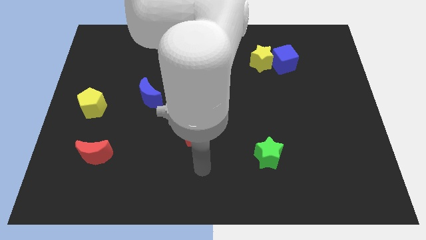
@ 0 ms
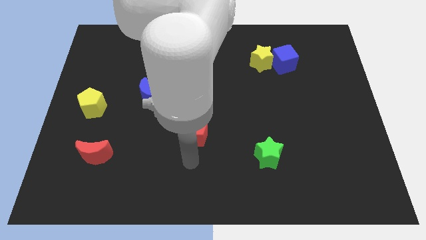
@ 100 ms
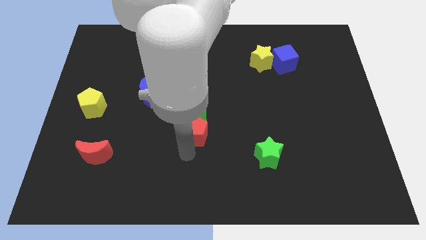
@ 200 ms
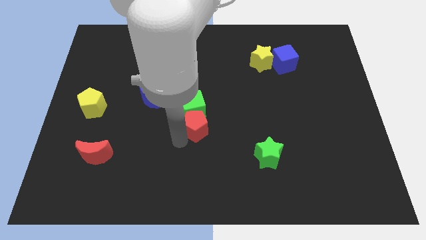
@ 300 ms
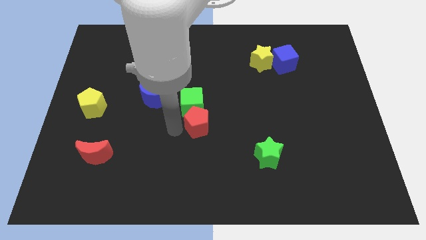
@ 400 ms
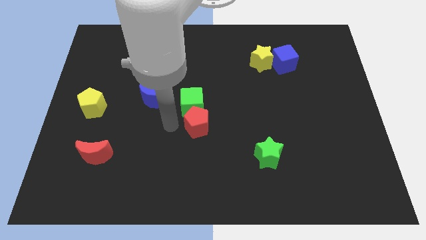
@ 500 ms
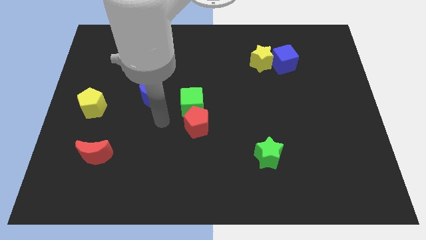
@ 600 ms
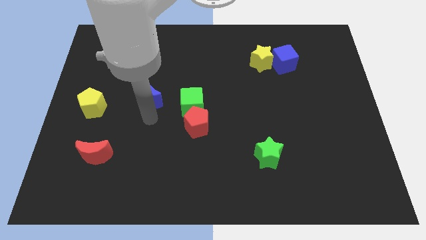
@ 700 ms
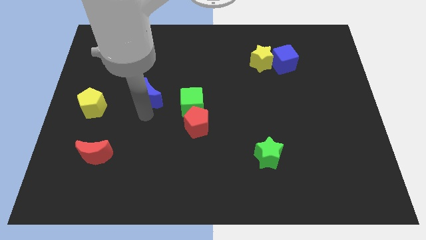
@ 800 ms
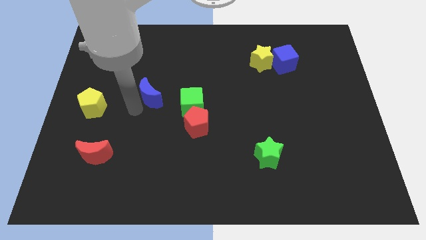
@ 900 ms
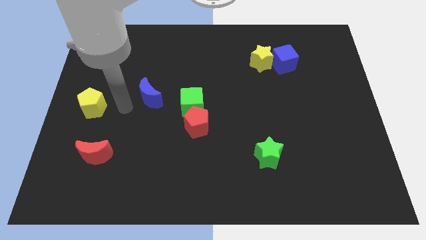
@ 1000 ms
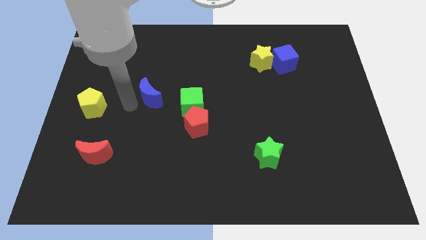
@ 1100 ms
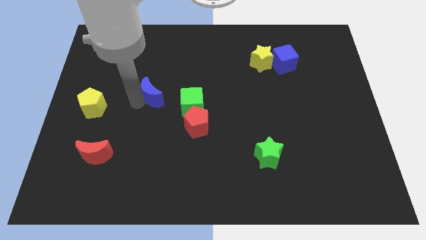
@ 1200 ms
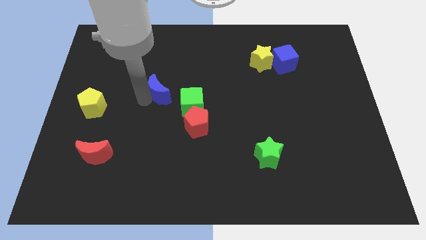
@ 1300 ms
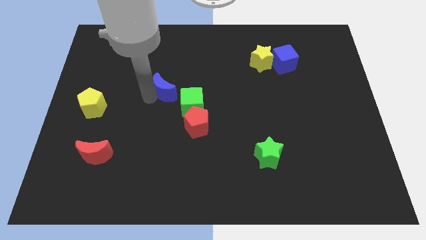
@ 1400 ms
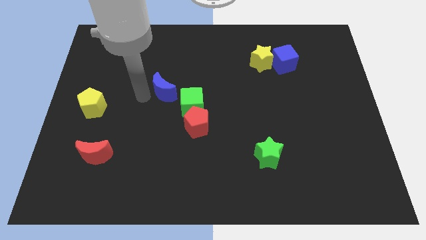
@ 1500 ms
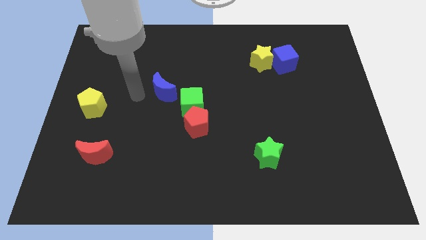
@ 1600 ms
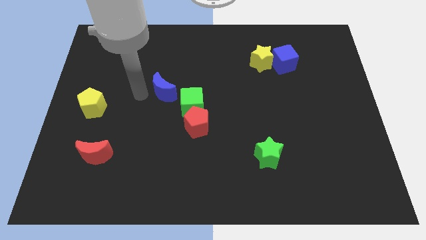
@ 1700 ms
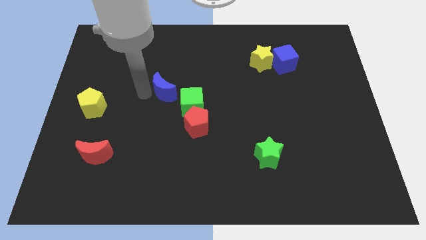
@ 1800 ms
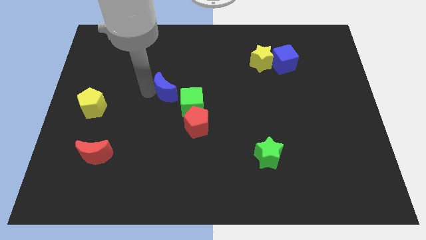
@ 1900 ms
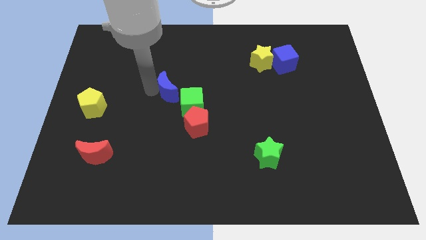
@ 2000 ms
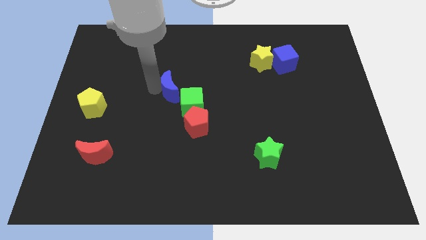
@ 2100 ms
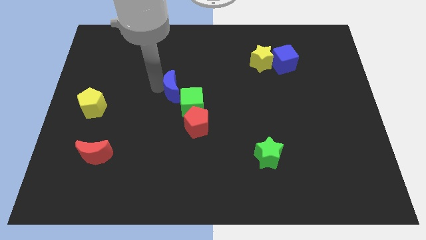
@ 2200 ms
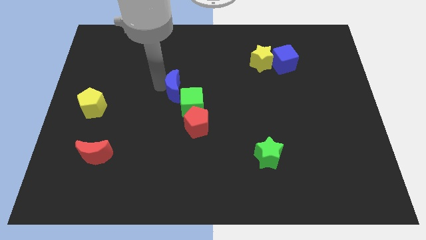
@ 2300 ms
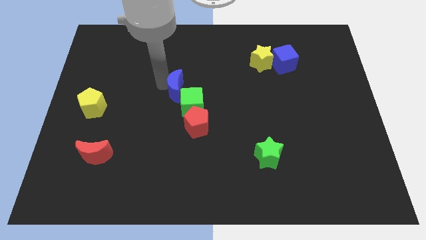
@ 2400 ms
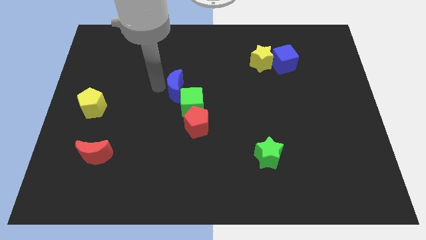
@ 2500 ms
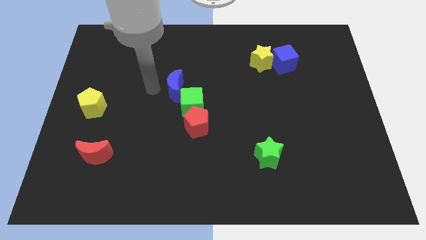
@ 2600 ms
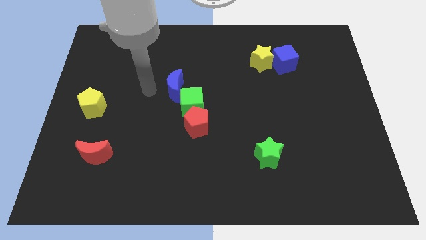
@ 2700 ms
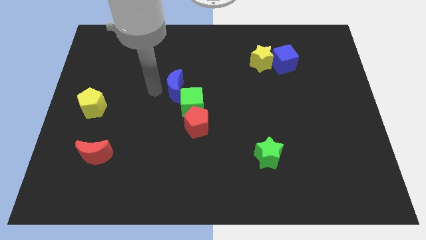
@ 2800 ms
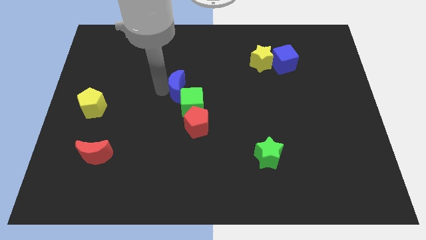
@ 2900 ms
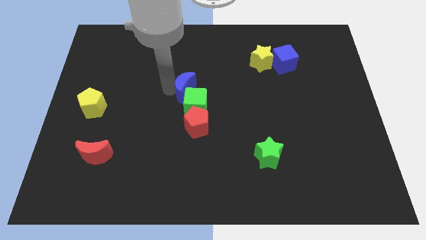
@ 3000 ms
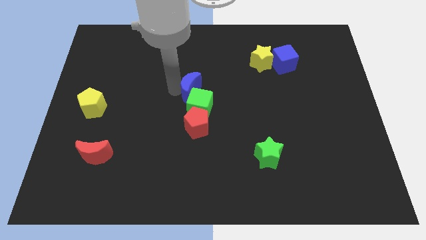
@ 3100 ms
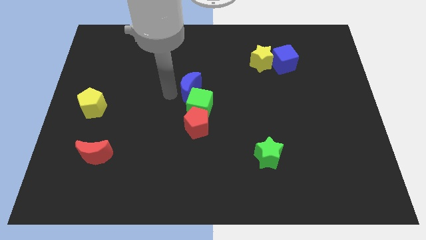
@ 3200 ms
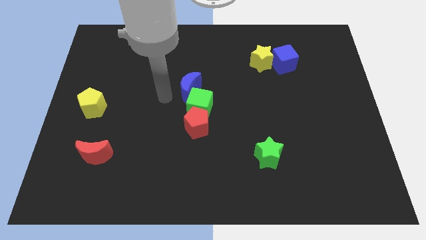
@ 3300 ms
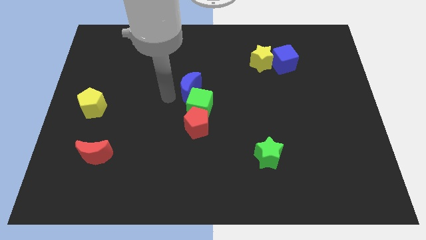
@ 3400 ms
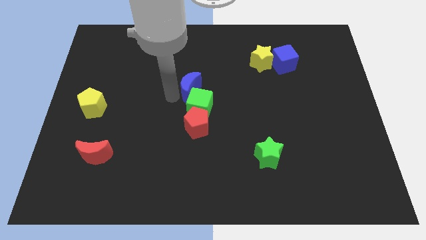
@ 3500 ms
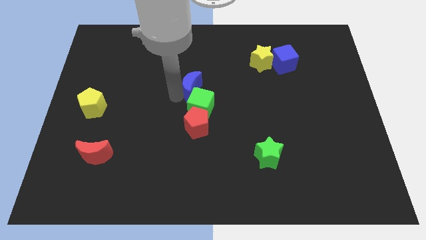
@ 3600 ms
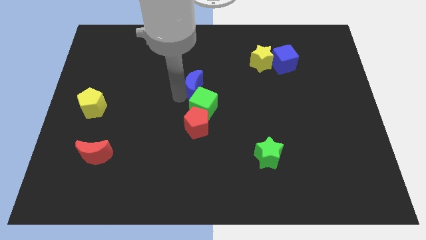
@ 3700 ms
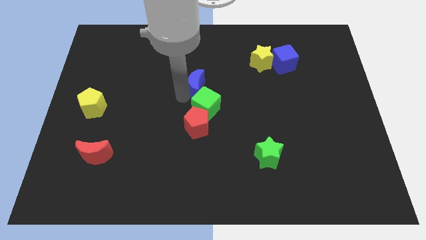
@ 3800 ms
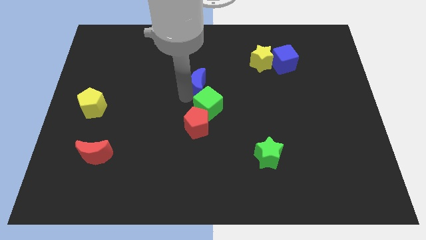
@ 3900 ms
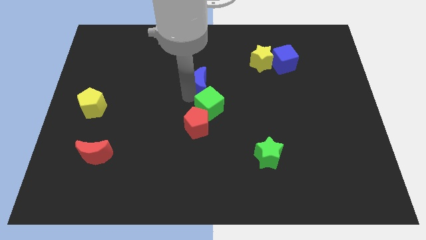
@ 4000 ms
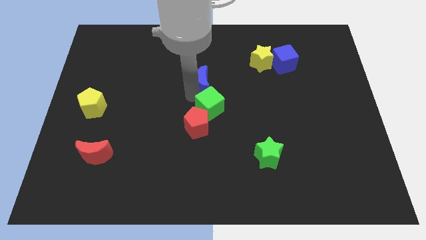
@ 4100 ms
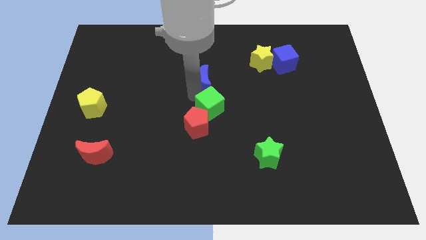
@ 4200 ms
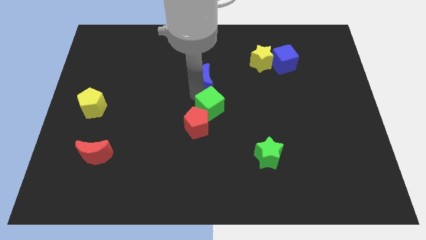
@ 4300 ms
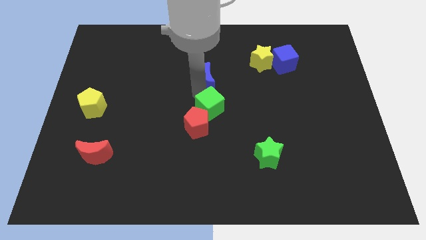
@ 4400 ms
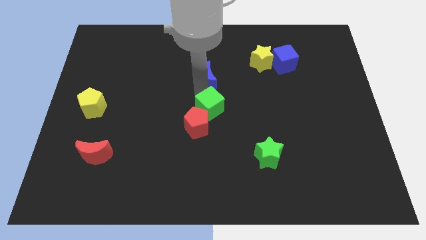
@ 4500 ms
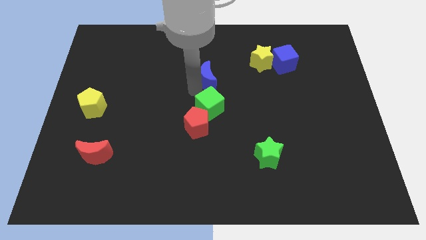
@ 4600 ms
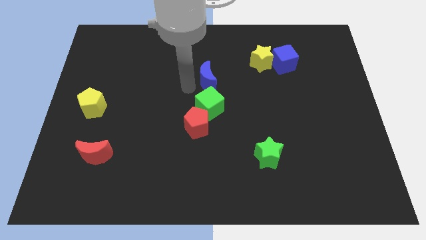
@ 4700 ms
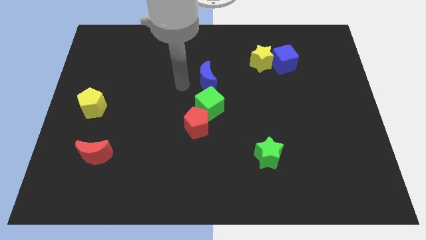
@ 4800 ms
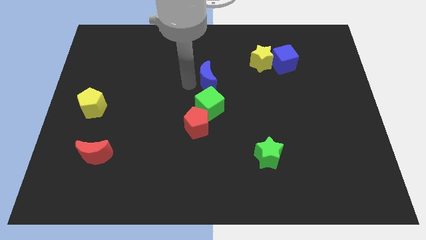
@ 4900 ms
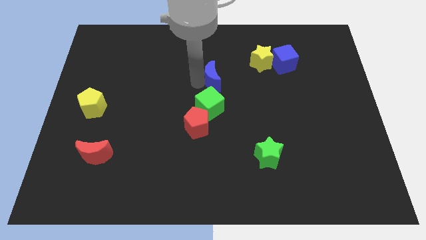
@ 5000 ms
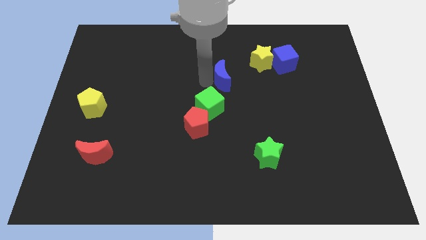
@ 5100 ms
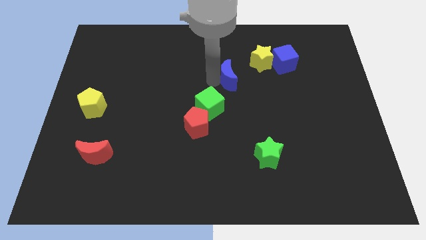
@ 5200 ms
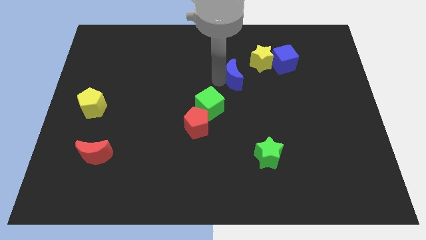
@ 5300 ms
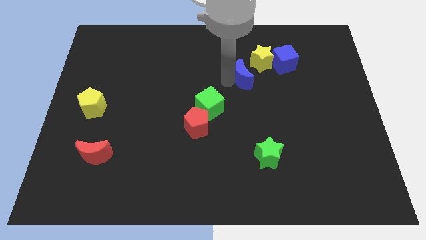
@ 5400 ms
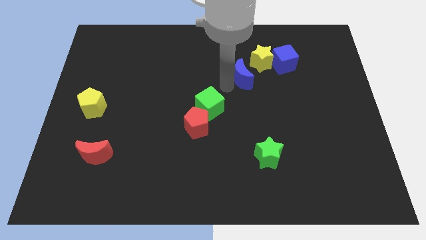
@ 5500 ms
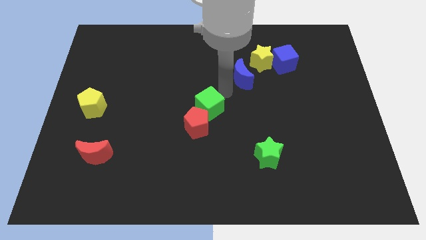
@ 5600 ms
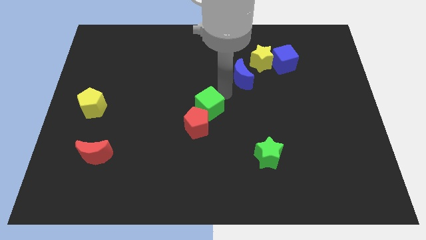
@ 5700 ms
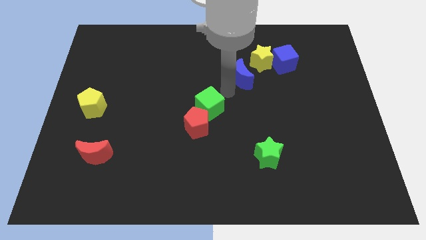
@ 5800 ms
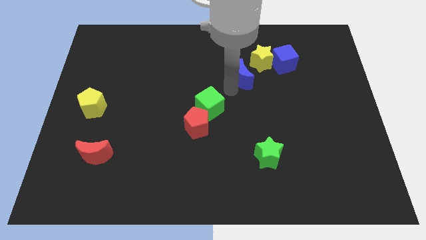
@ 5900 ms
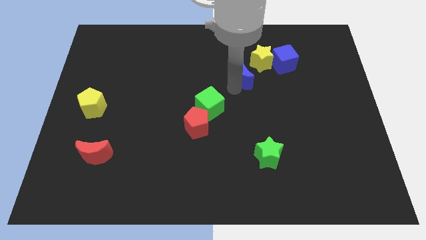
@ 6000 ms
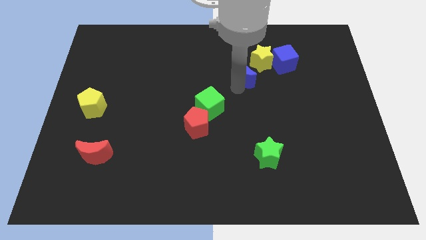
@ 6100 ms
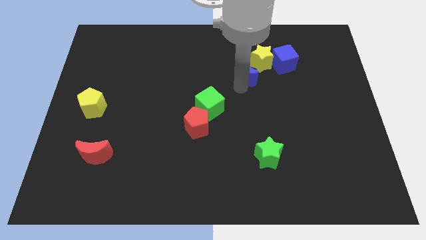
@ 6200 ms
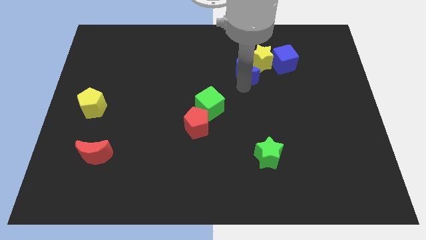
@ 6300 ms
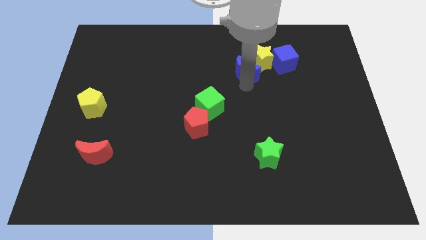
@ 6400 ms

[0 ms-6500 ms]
slide the blue moon towards the yellow star

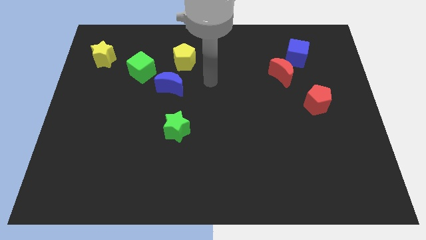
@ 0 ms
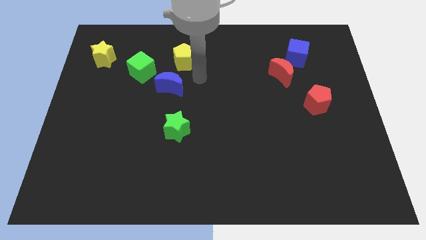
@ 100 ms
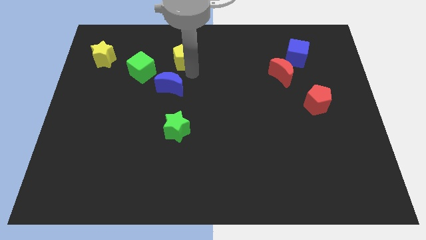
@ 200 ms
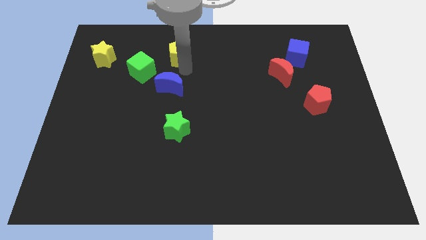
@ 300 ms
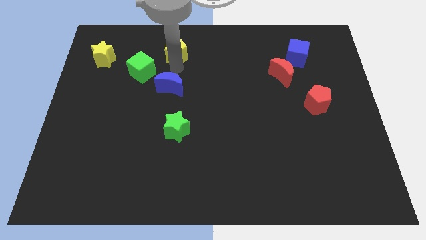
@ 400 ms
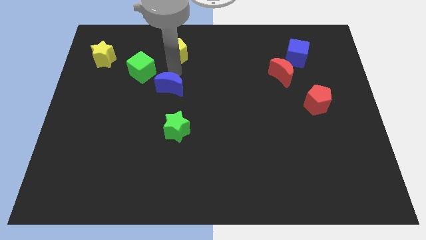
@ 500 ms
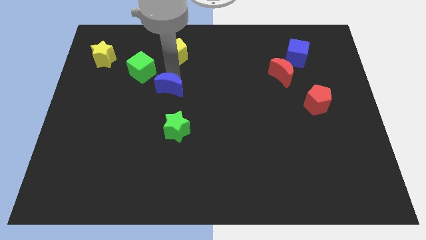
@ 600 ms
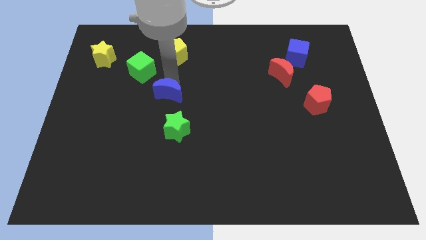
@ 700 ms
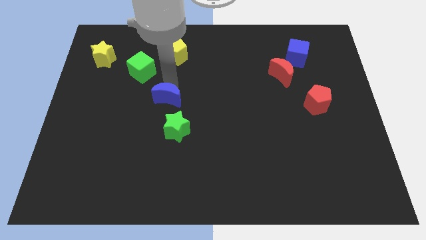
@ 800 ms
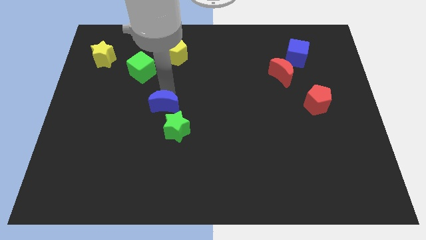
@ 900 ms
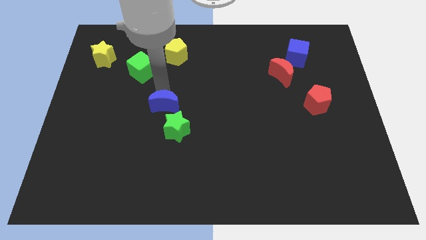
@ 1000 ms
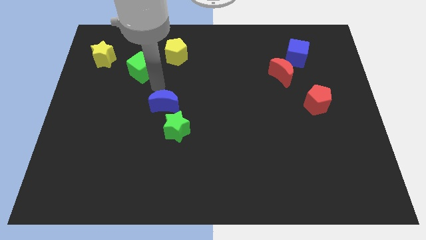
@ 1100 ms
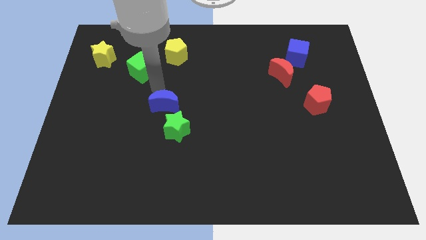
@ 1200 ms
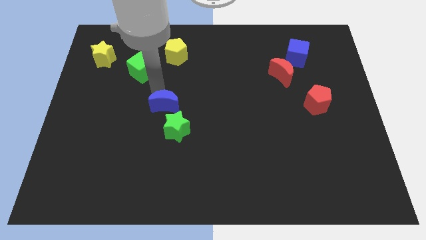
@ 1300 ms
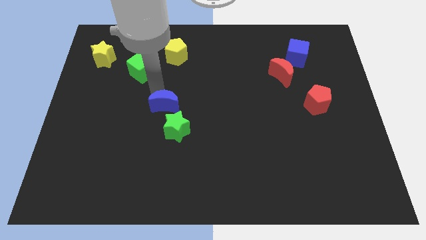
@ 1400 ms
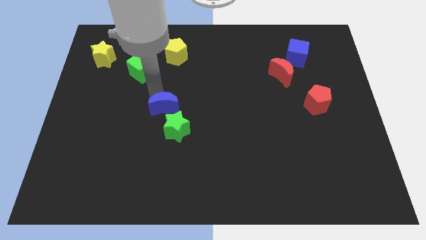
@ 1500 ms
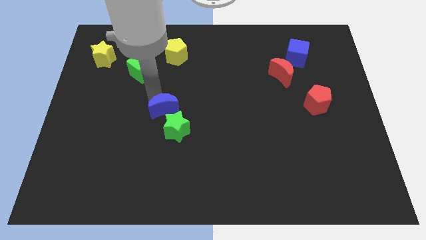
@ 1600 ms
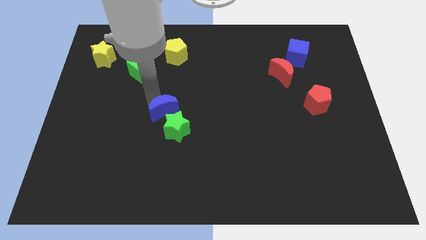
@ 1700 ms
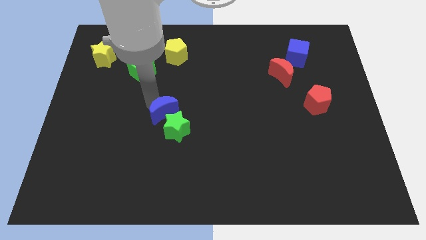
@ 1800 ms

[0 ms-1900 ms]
move the blue moon towards the green star
